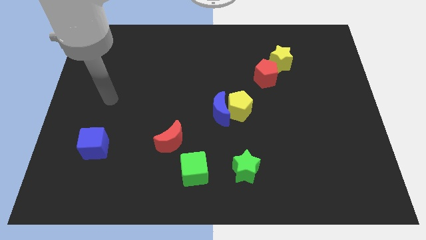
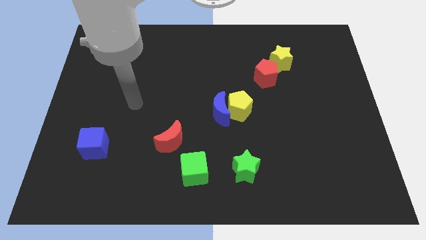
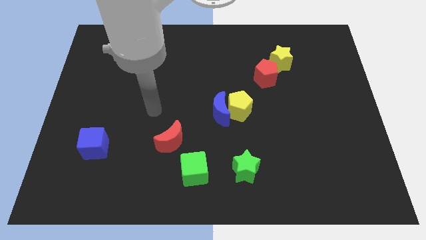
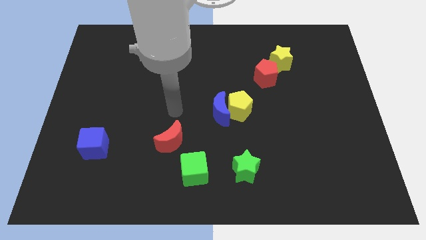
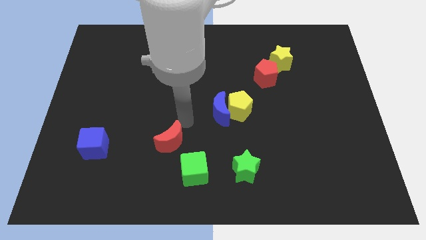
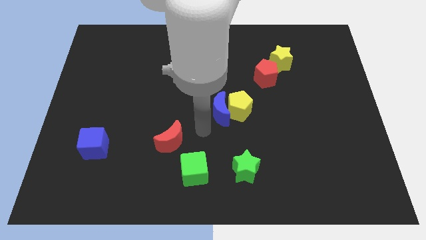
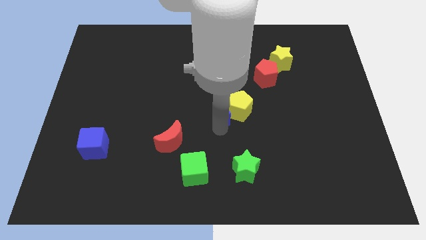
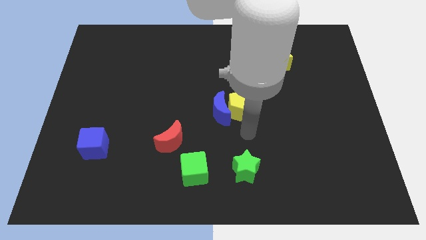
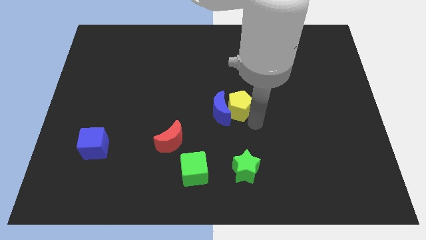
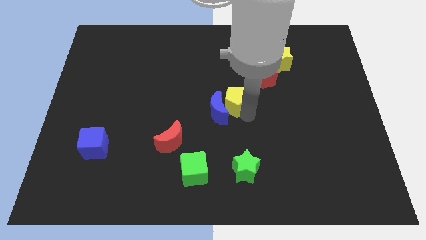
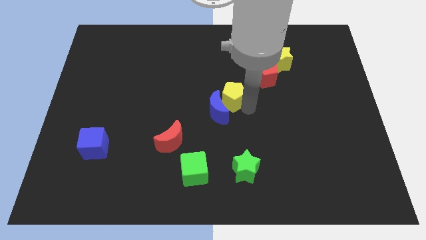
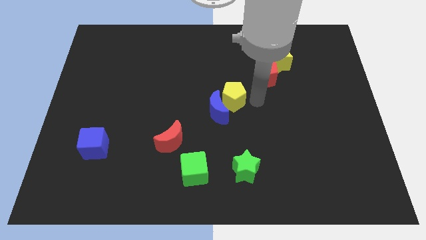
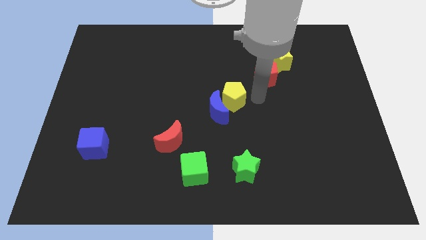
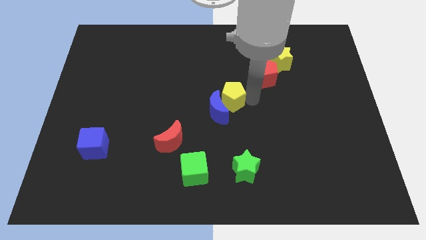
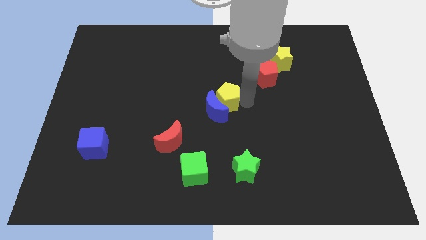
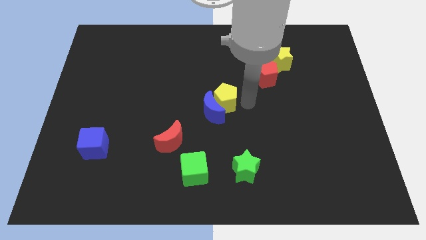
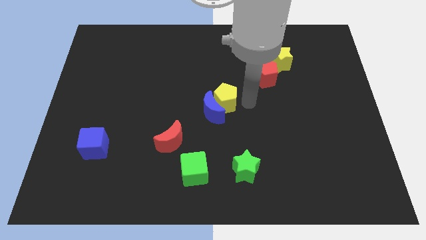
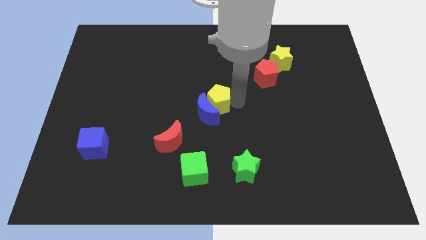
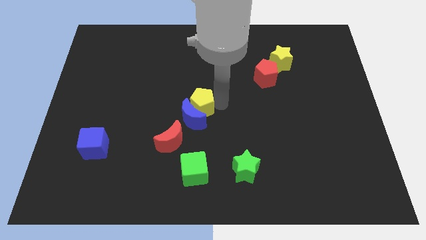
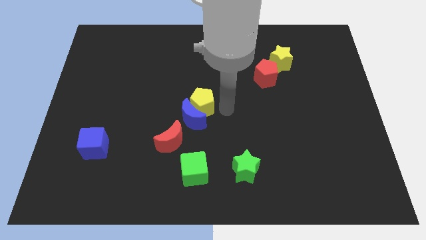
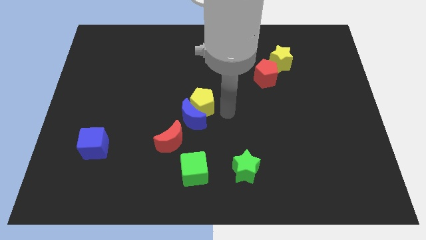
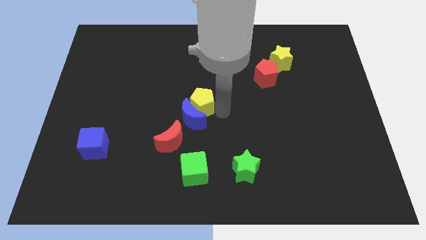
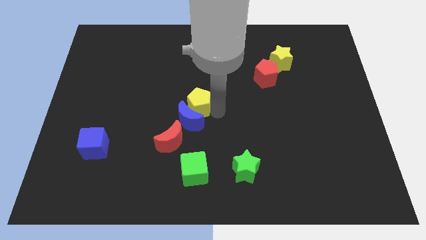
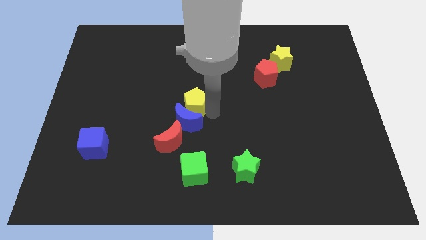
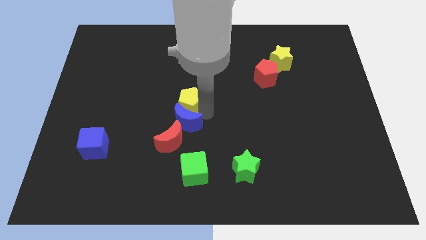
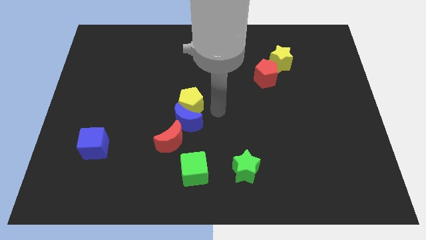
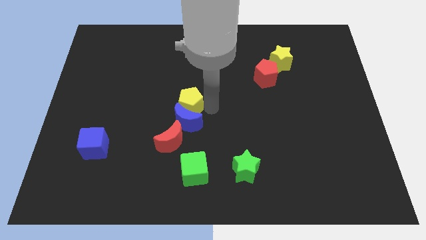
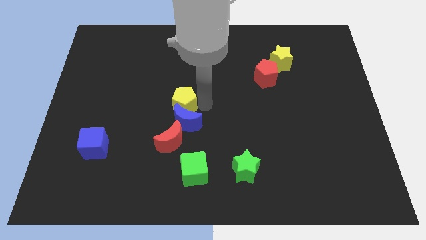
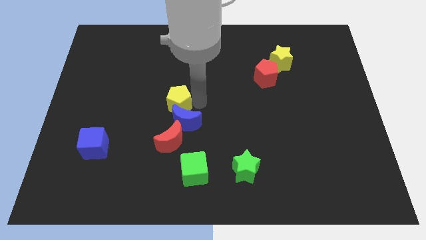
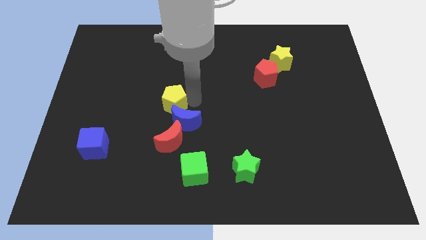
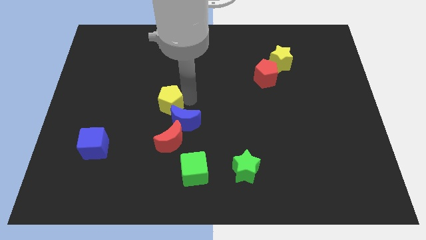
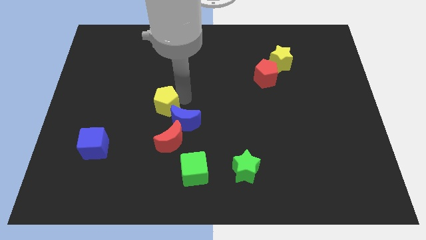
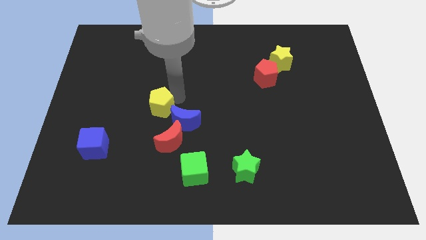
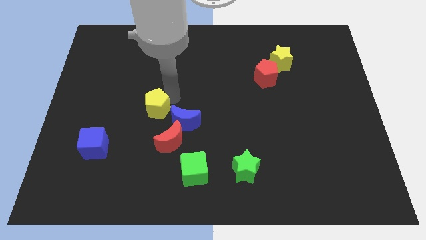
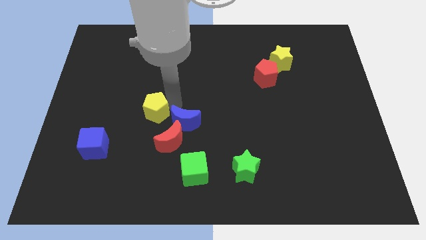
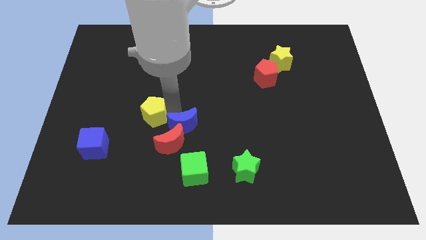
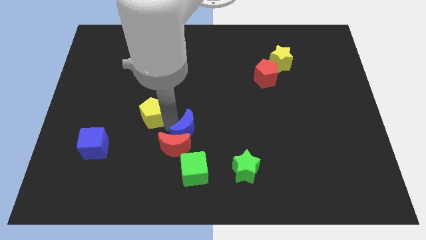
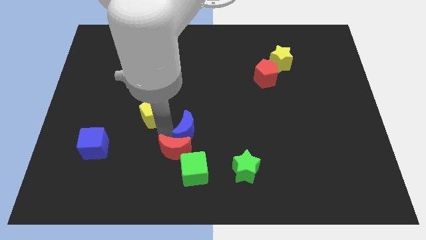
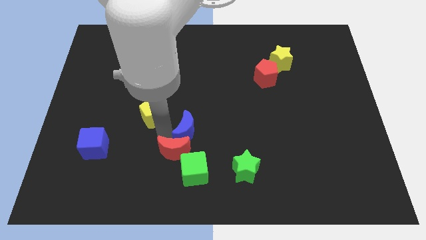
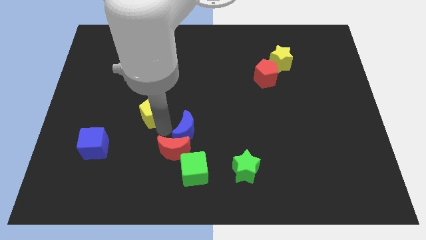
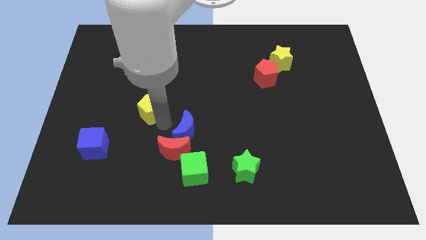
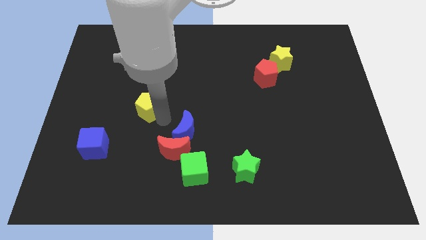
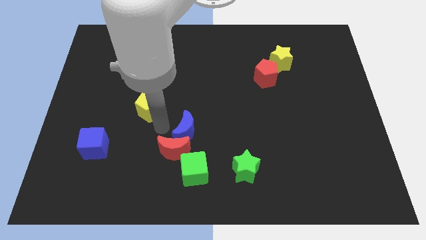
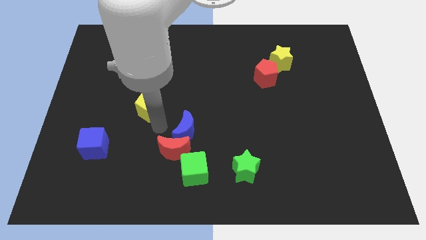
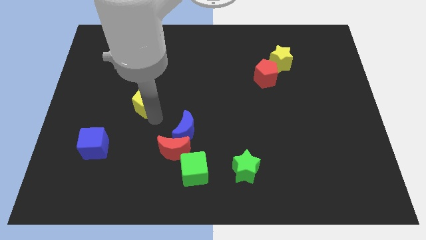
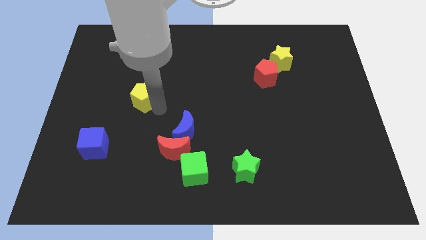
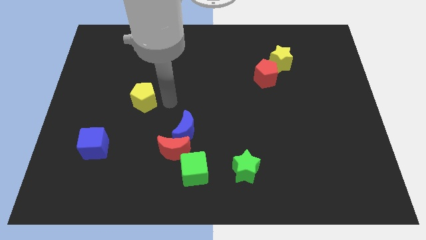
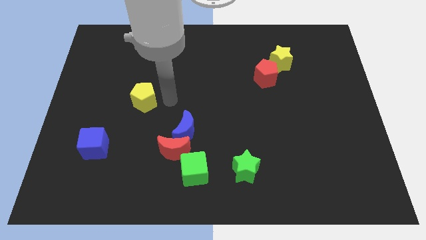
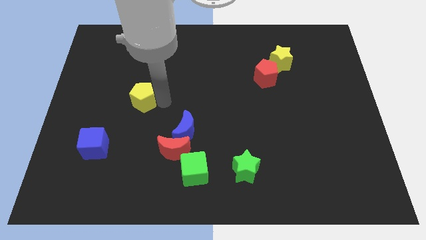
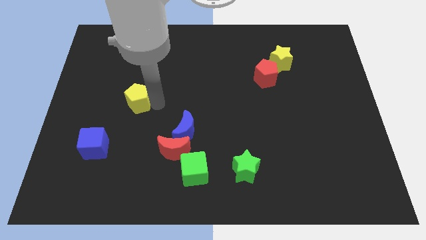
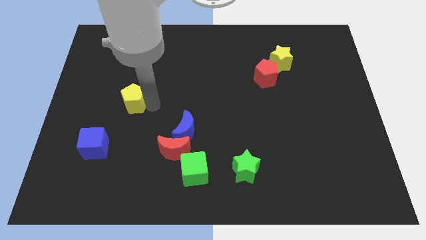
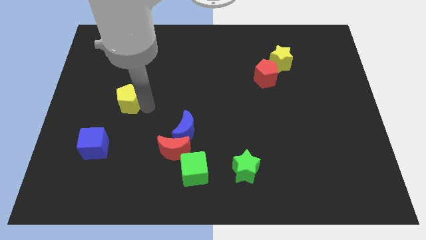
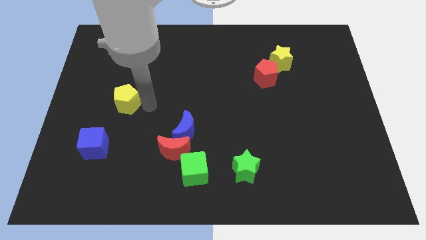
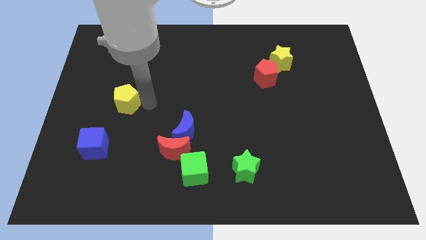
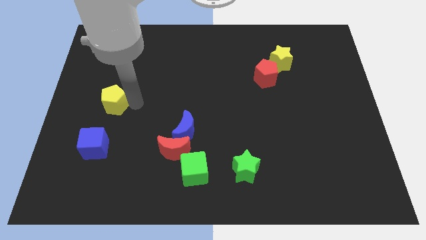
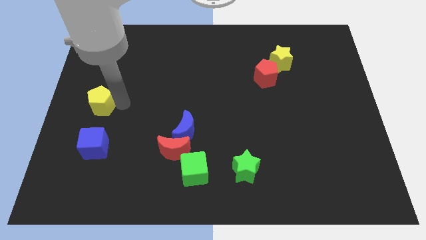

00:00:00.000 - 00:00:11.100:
move the yellow pentagon to the center left

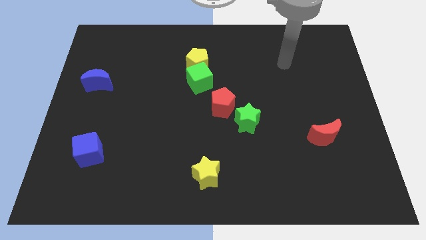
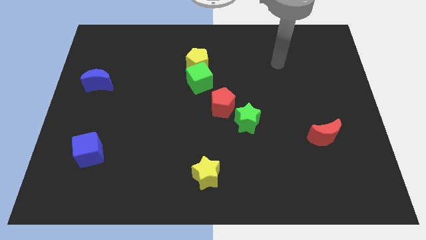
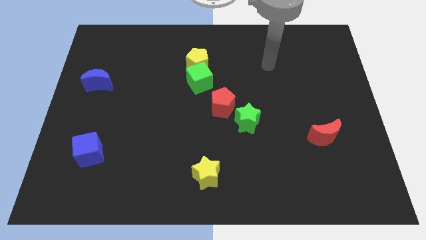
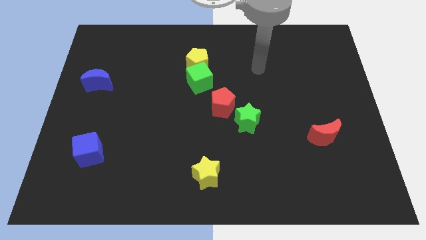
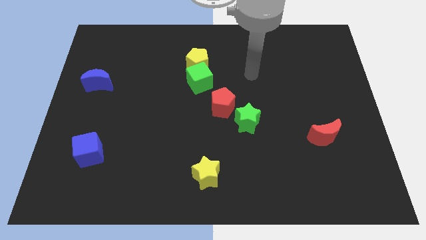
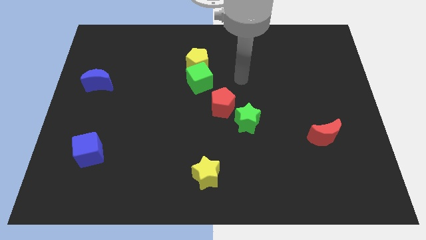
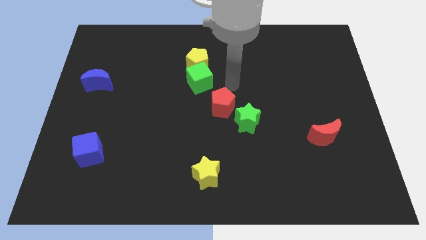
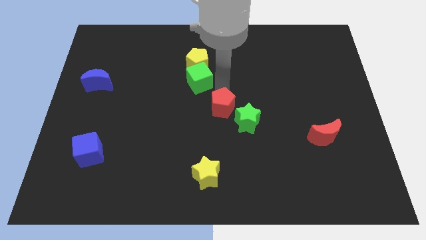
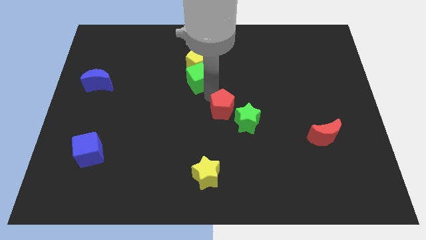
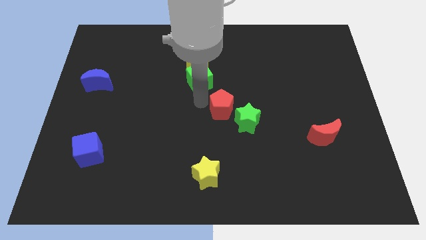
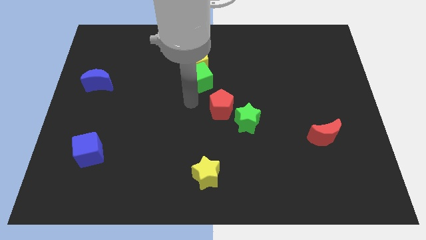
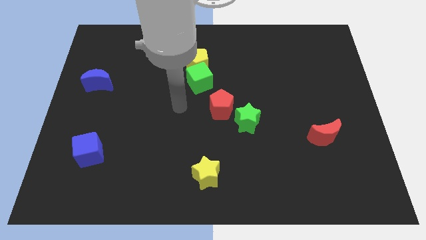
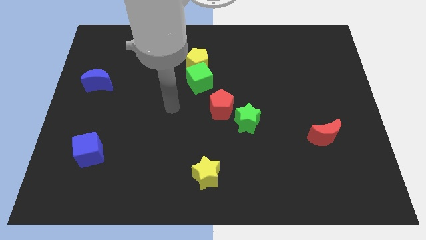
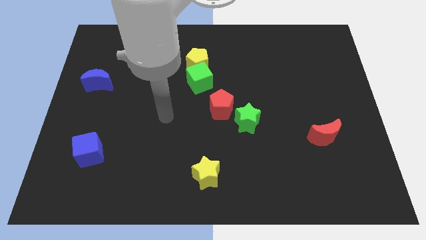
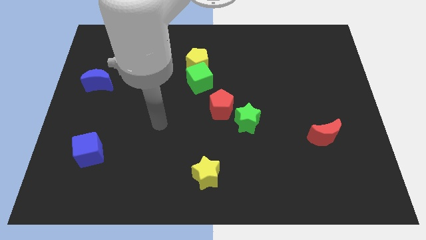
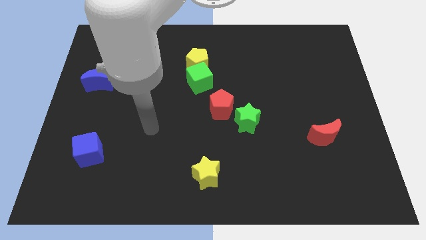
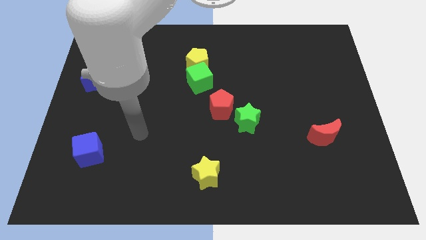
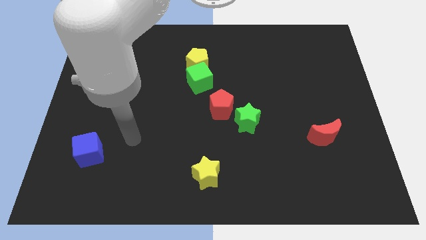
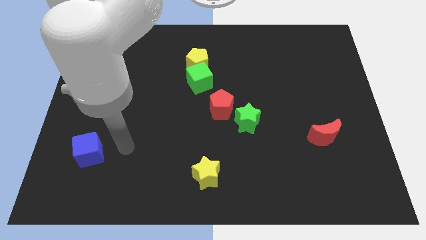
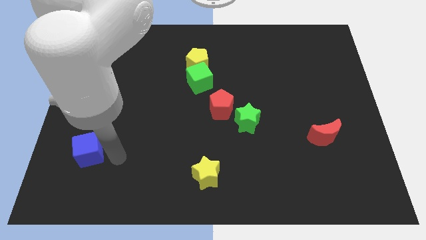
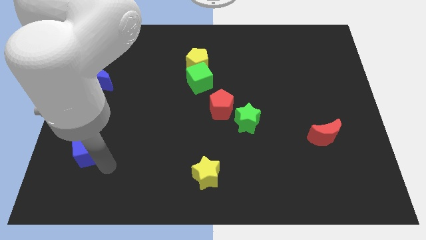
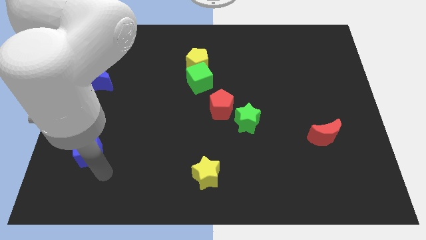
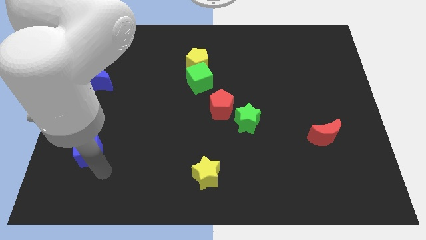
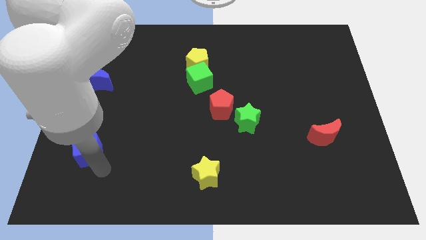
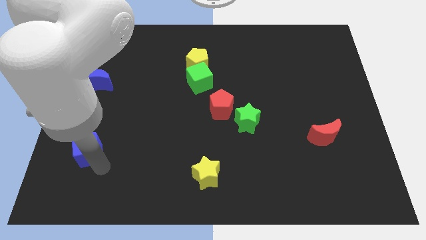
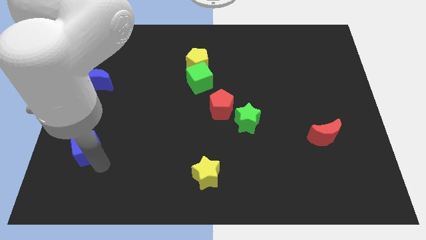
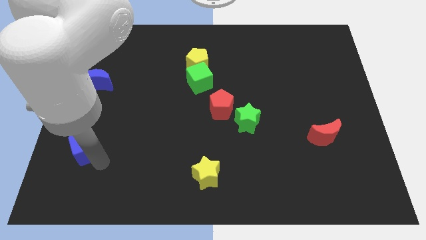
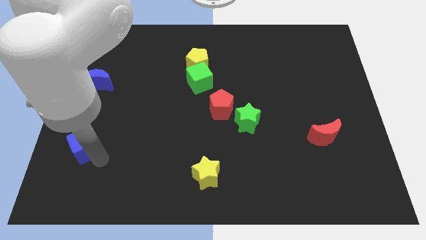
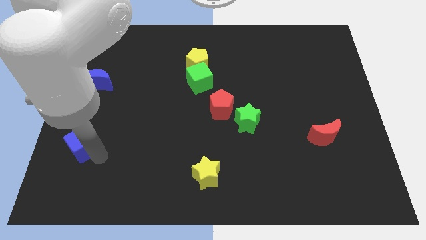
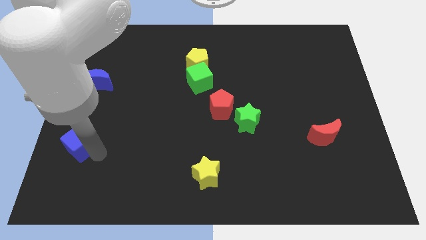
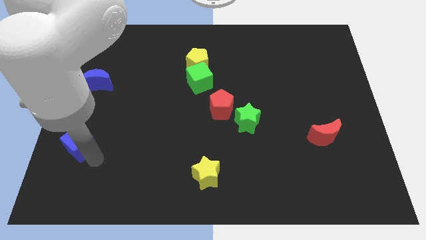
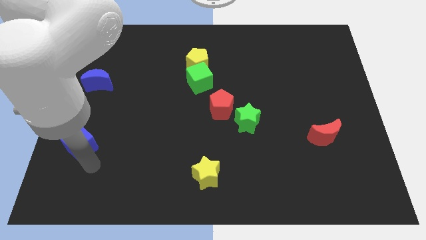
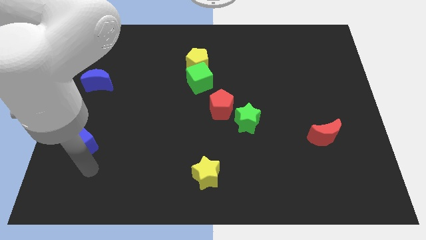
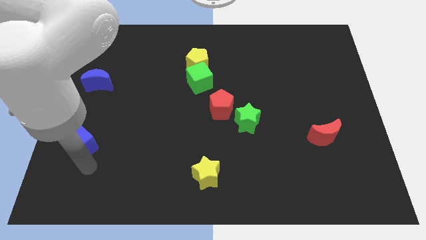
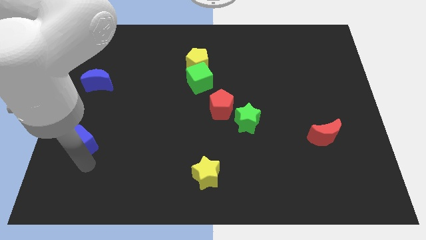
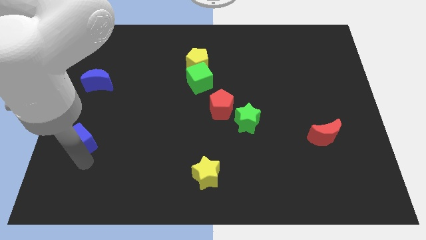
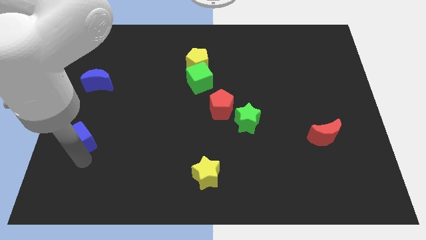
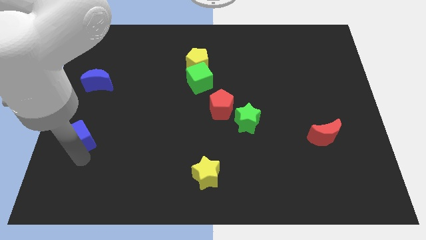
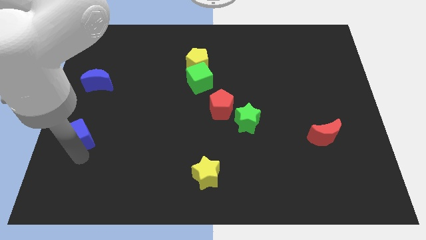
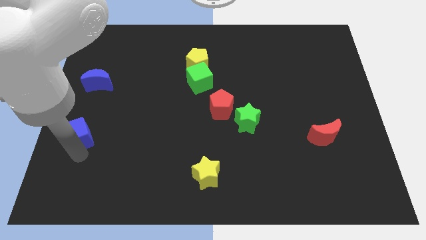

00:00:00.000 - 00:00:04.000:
slide the blue cube to the left side of the board
